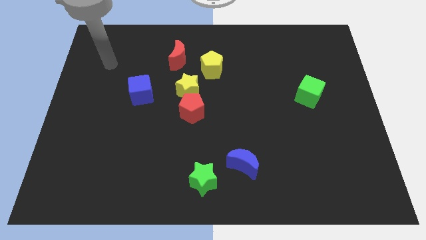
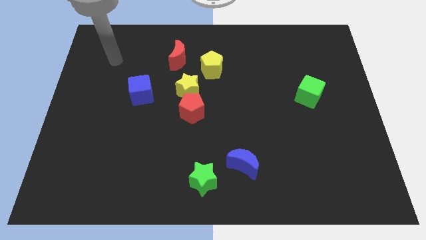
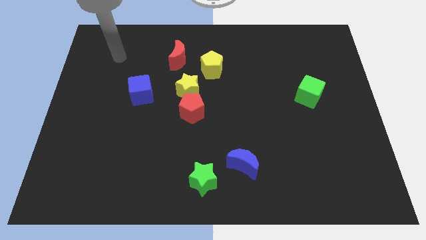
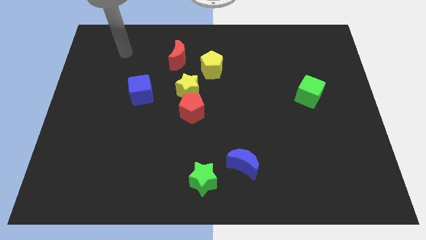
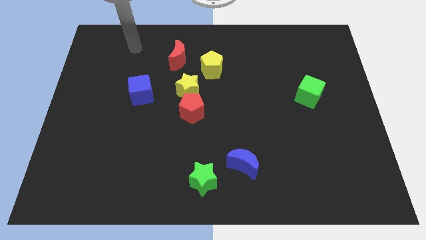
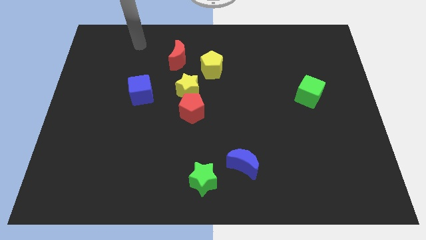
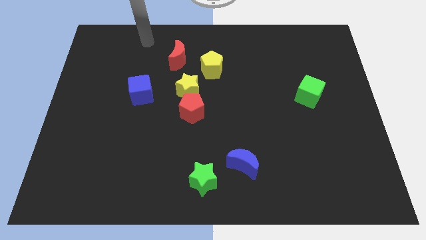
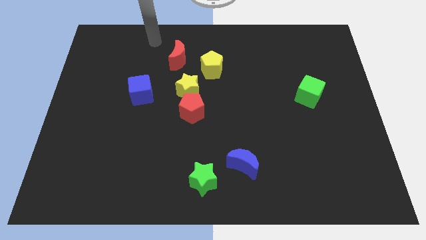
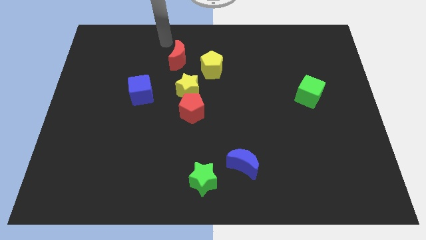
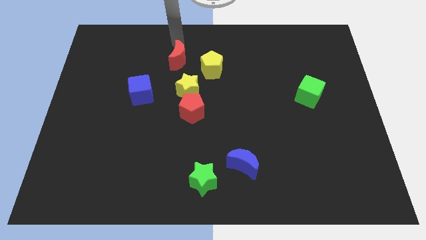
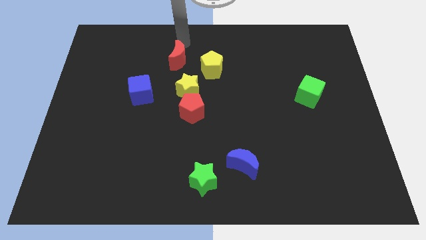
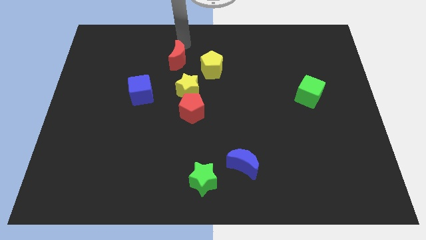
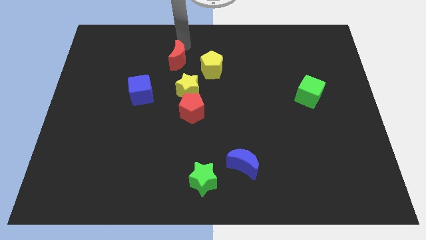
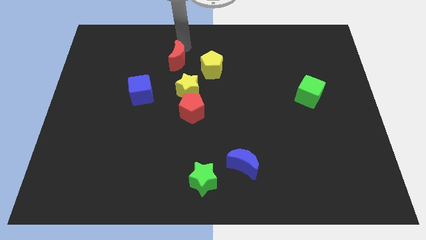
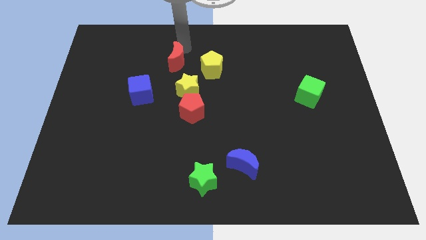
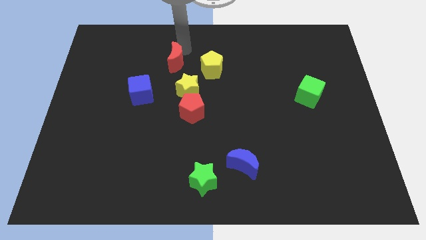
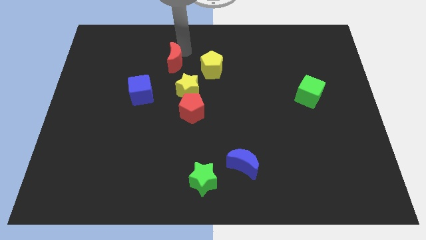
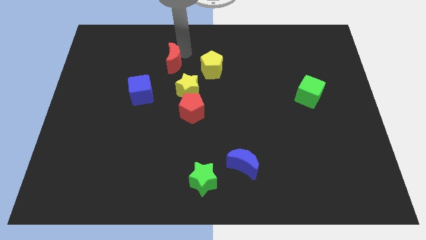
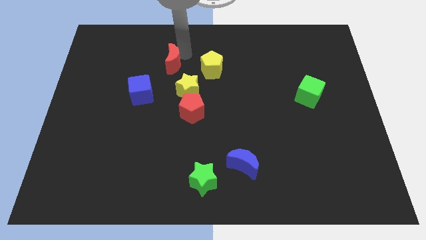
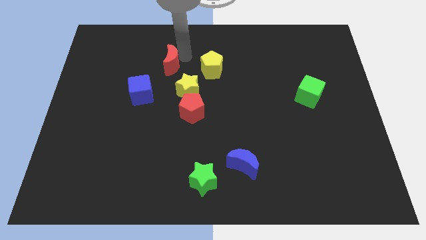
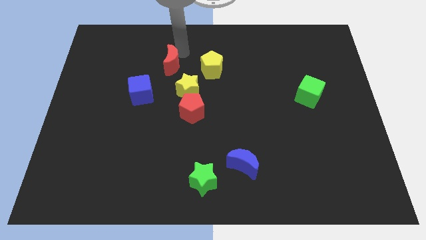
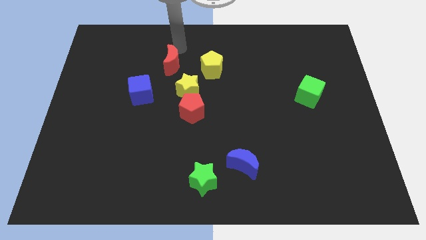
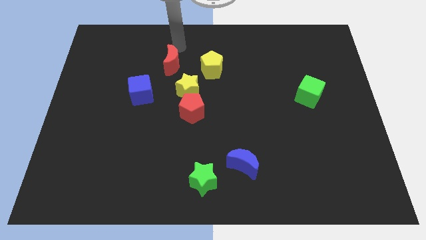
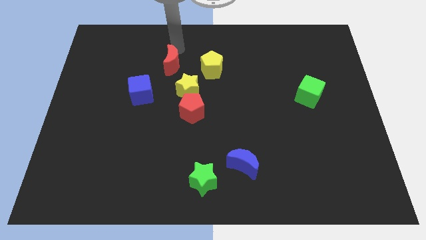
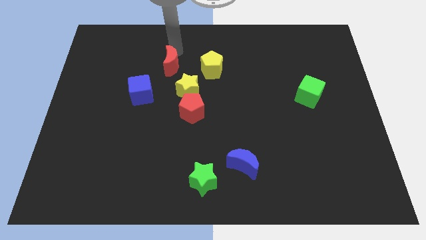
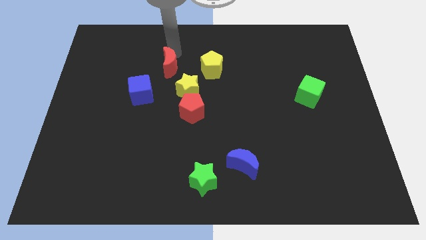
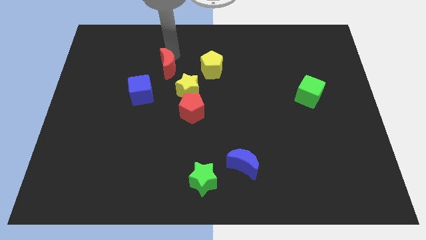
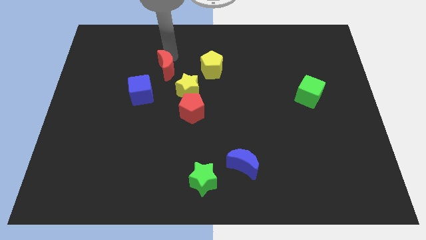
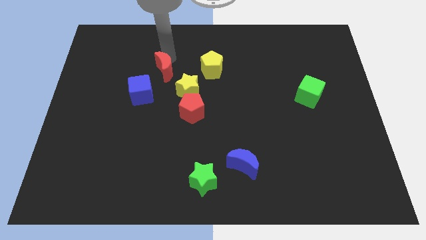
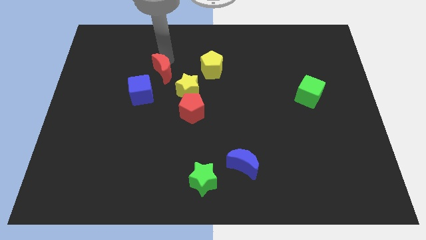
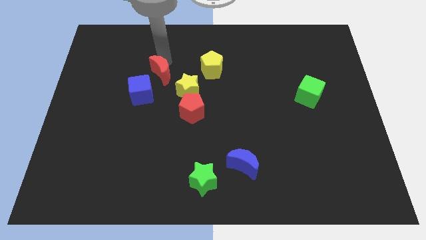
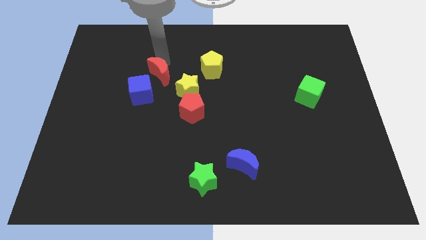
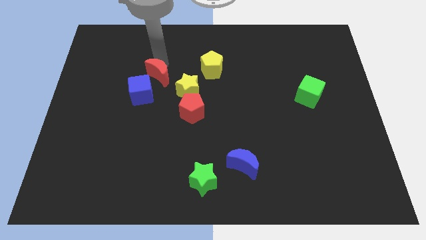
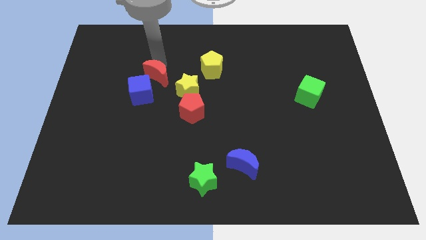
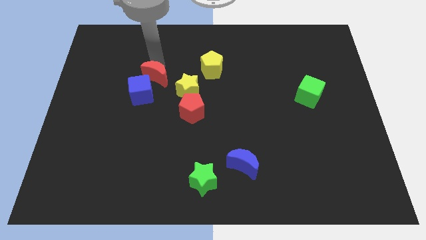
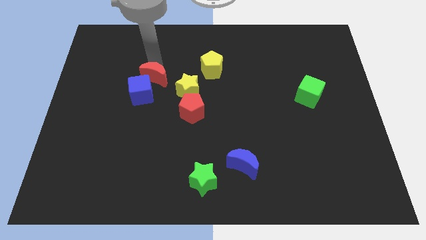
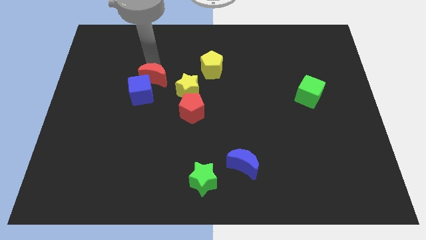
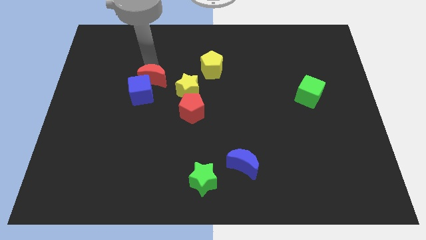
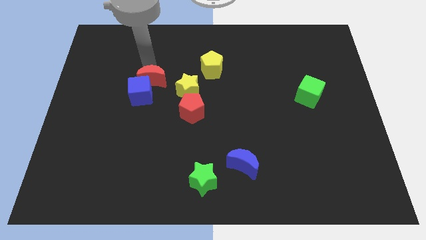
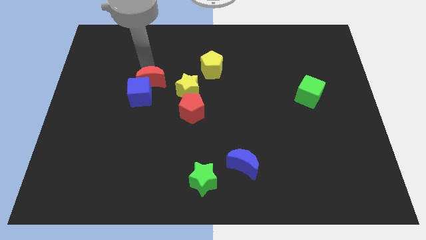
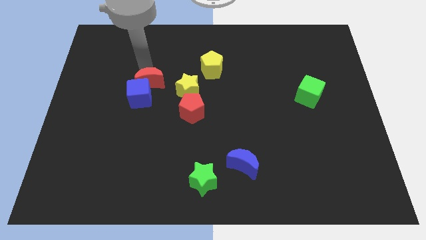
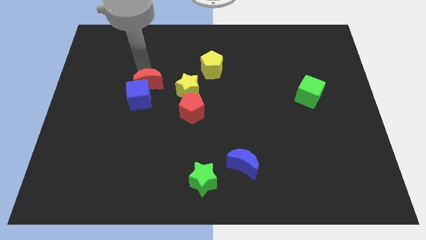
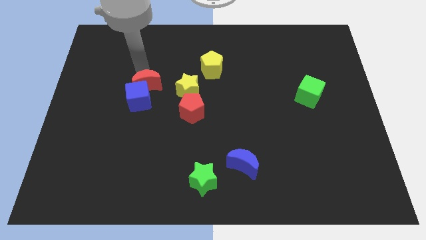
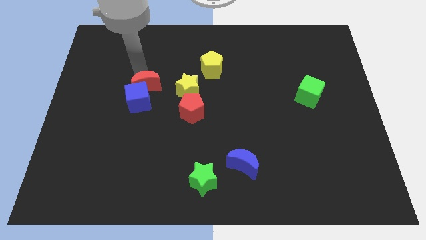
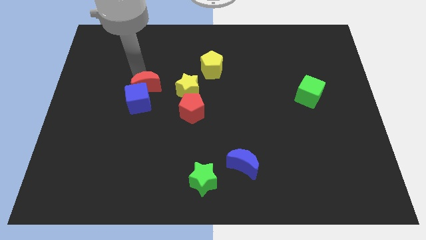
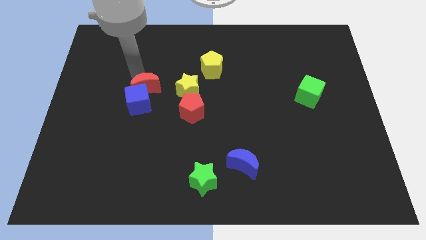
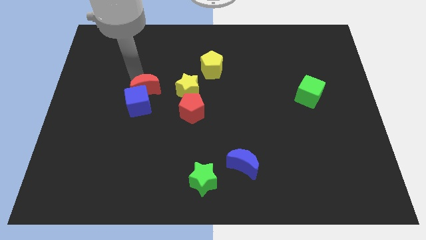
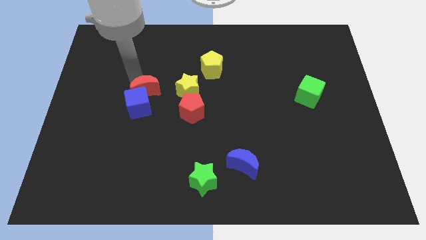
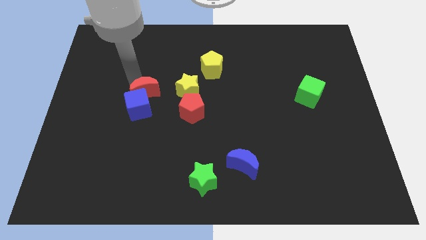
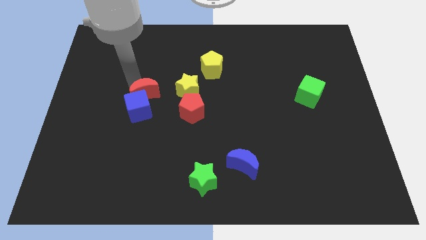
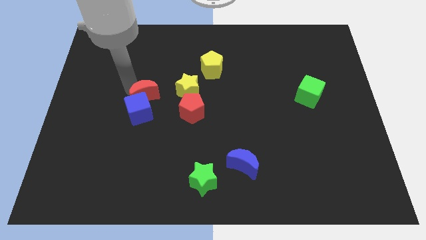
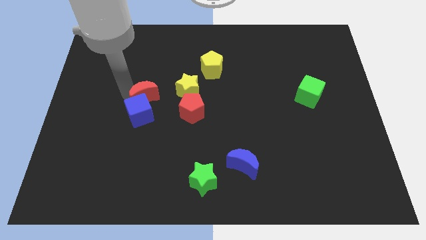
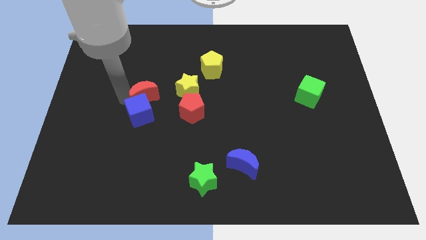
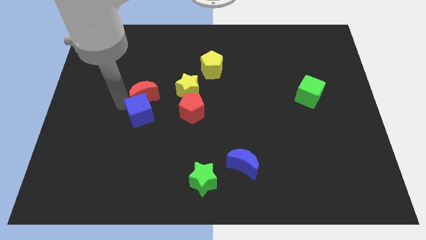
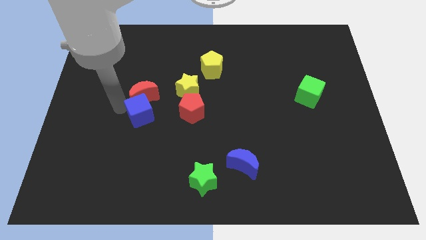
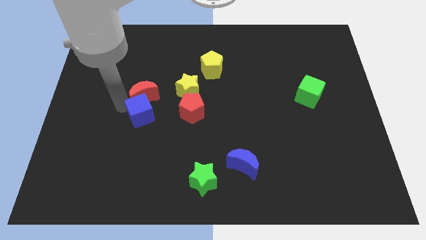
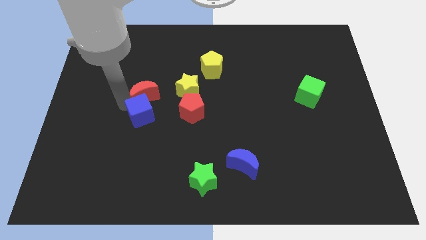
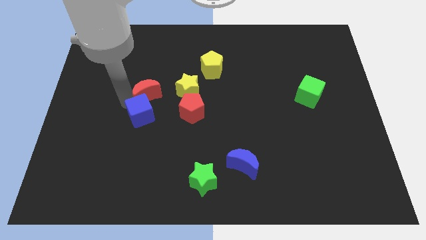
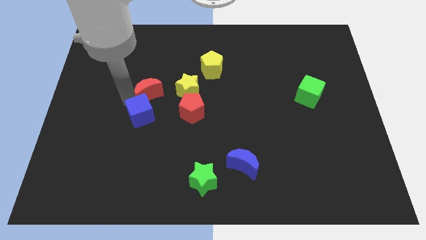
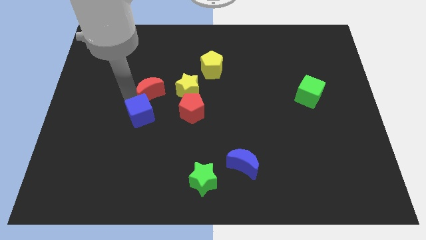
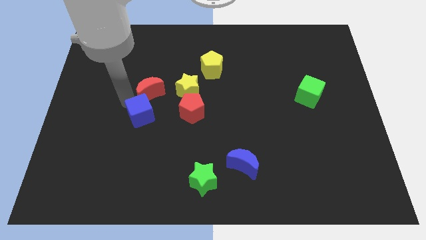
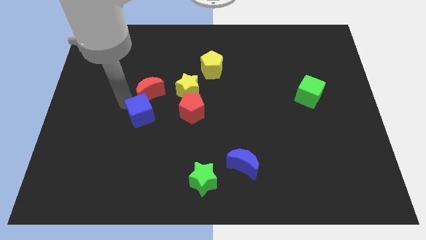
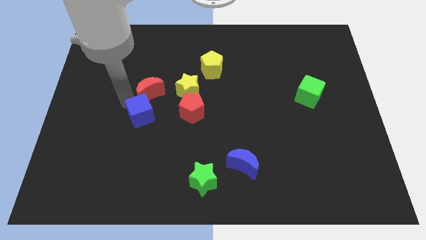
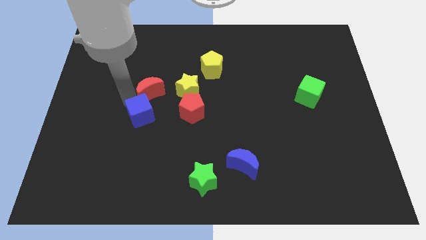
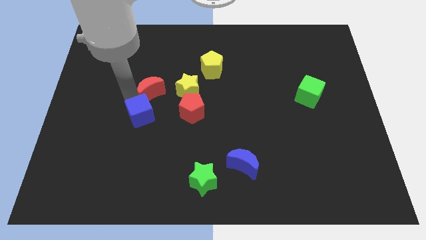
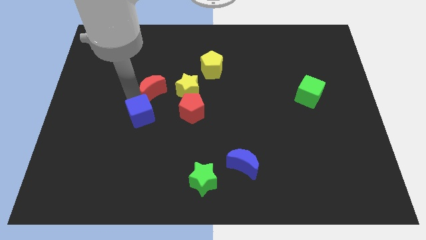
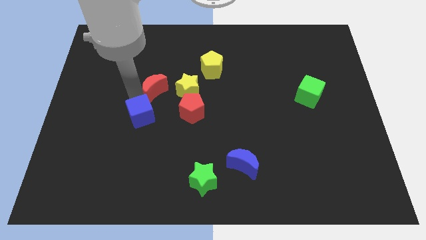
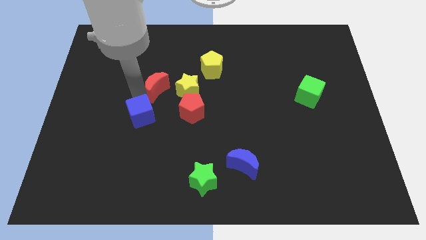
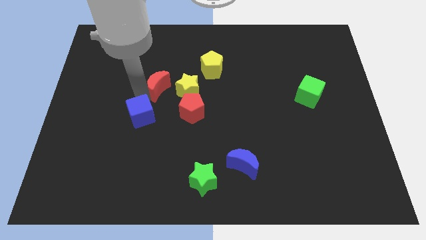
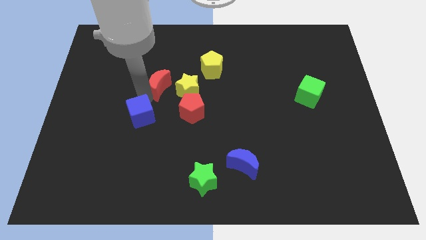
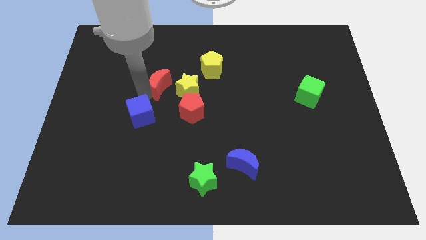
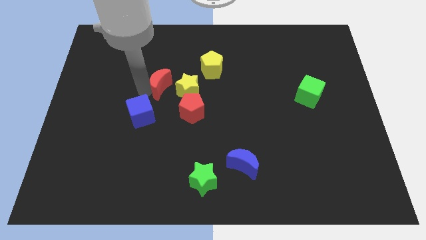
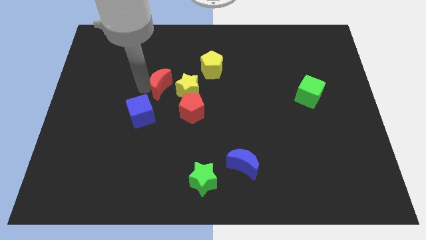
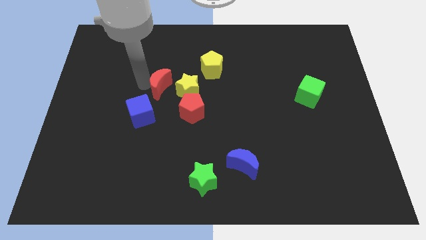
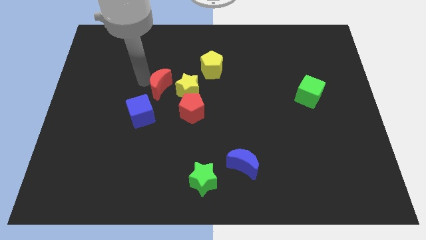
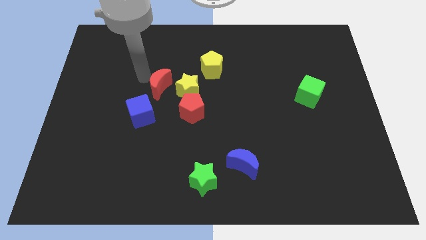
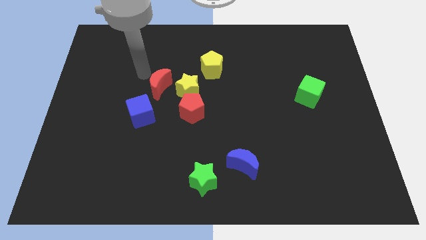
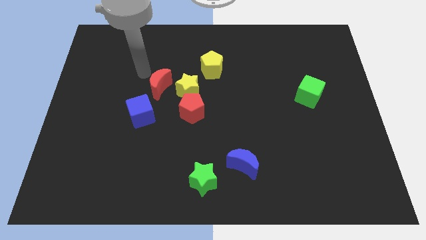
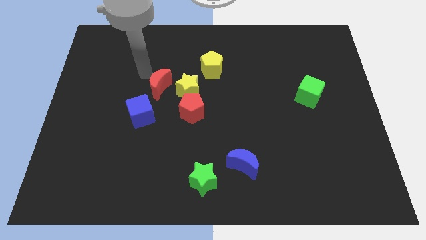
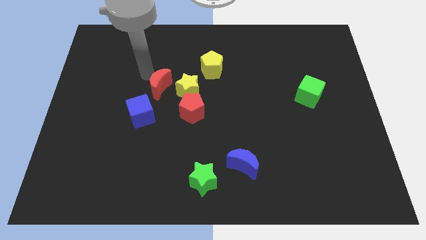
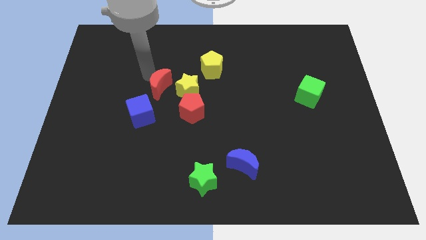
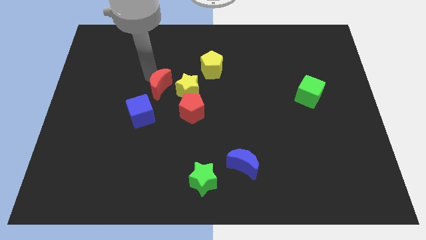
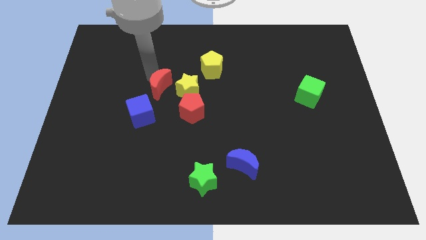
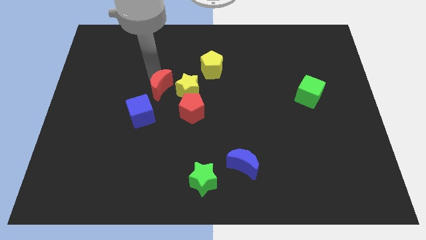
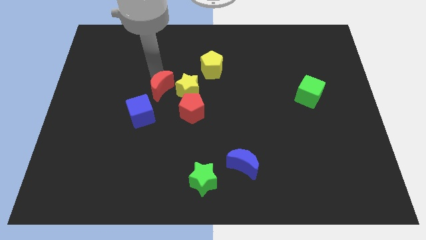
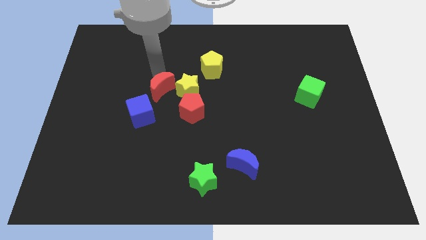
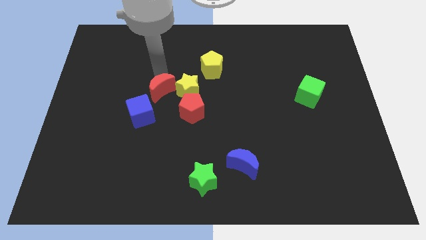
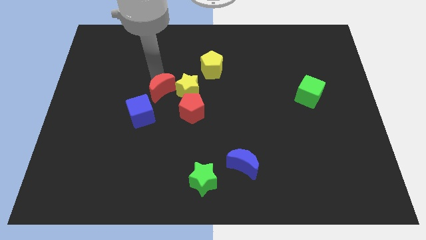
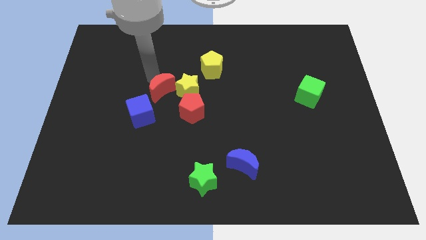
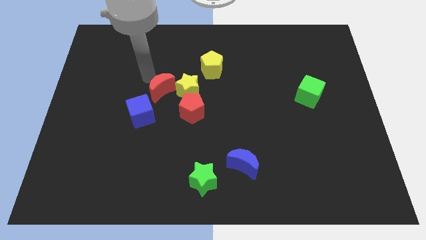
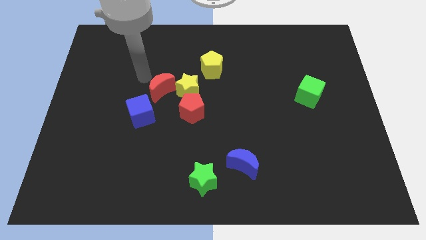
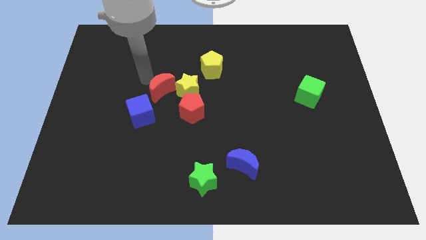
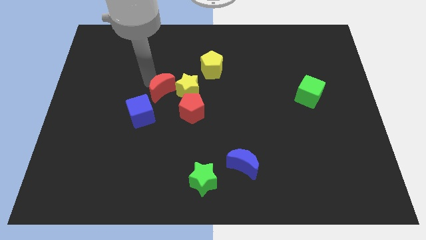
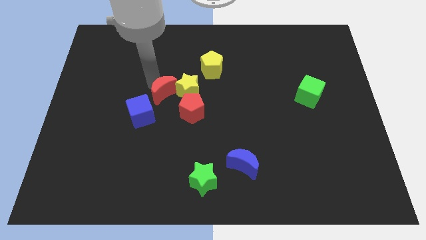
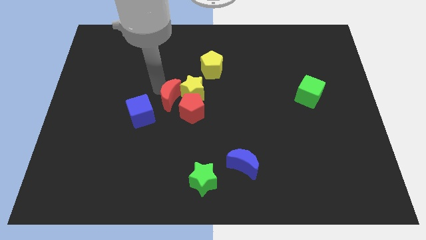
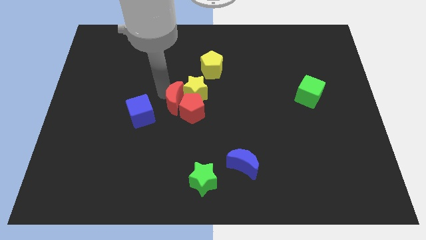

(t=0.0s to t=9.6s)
push the red moon to the red pentagon
